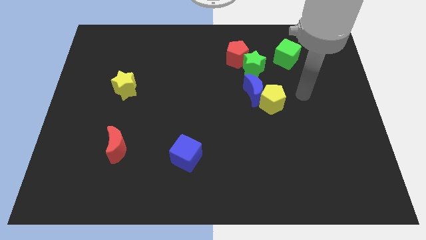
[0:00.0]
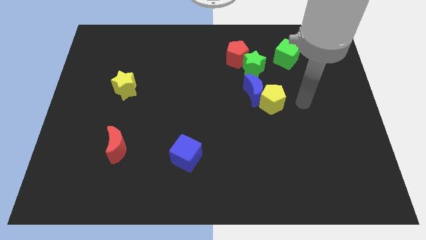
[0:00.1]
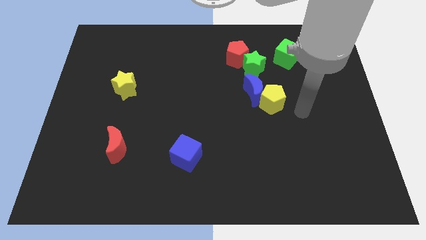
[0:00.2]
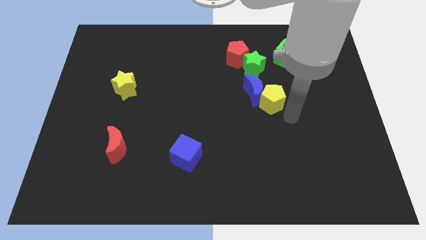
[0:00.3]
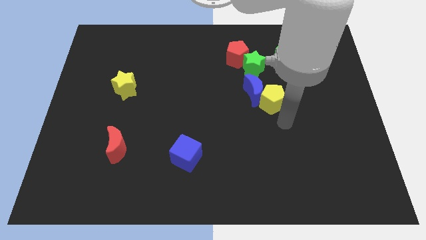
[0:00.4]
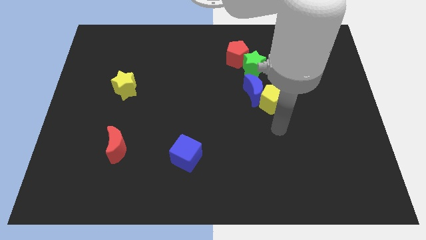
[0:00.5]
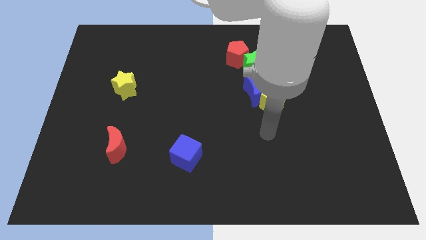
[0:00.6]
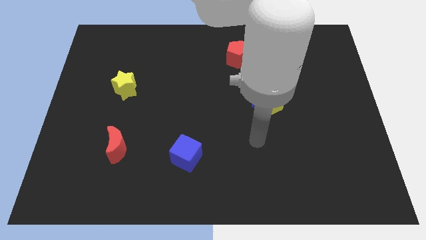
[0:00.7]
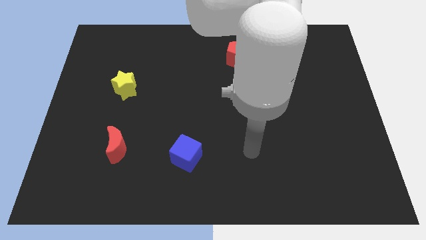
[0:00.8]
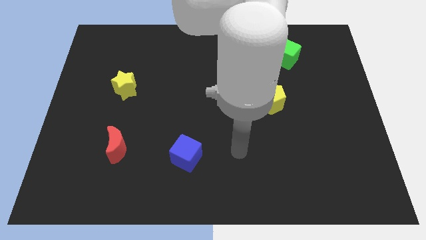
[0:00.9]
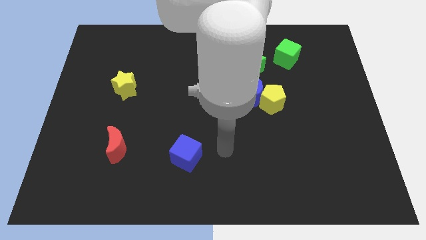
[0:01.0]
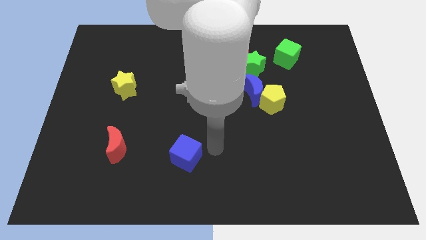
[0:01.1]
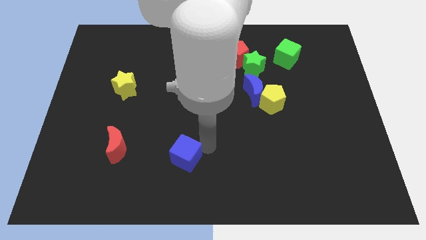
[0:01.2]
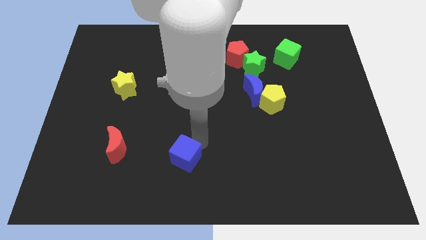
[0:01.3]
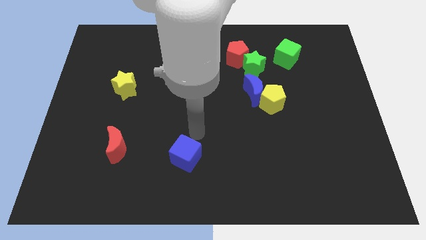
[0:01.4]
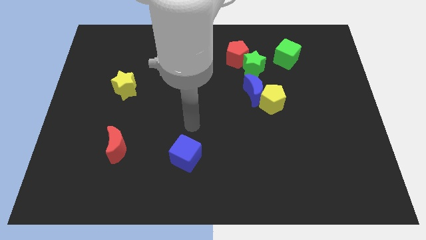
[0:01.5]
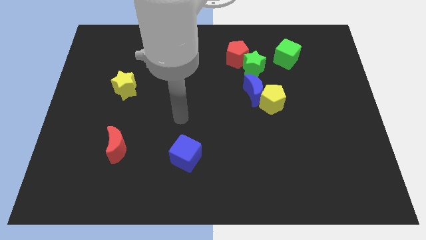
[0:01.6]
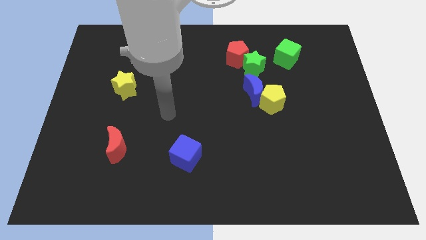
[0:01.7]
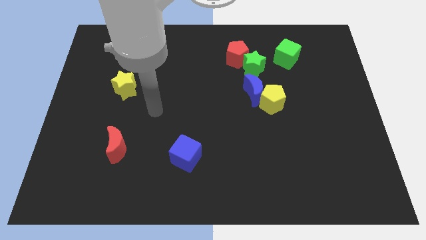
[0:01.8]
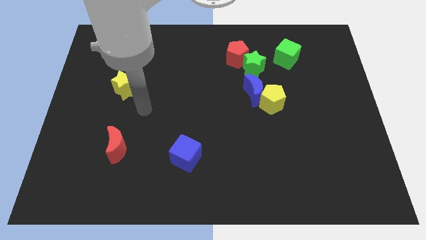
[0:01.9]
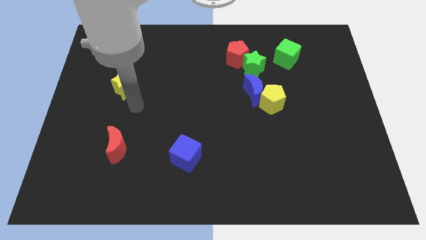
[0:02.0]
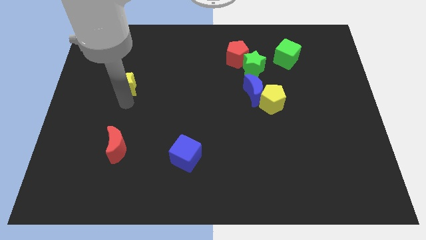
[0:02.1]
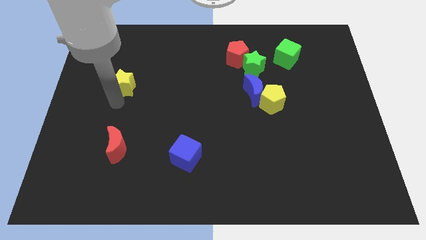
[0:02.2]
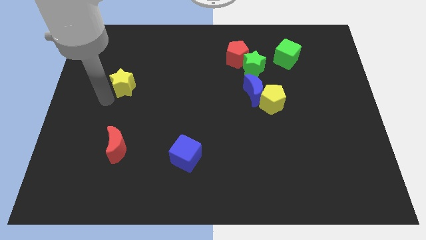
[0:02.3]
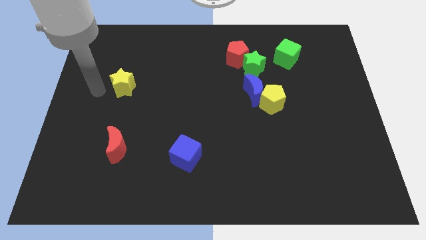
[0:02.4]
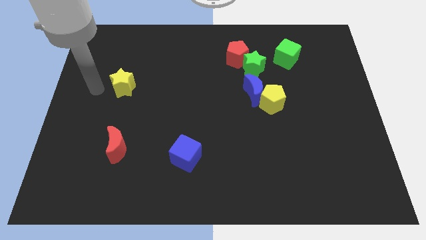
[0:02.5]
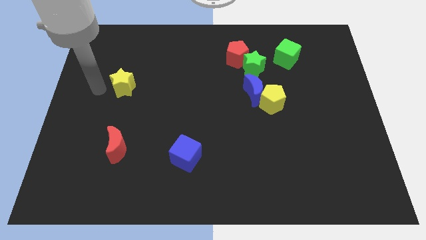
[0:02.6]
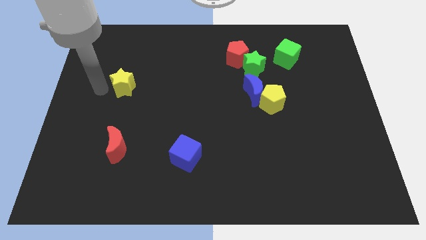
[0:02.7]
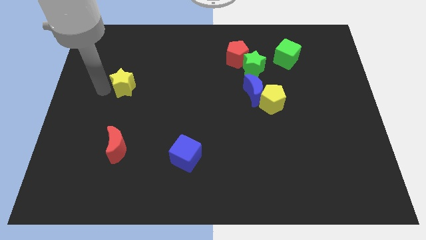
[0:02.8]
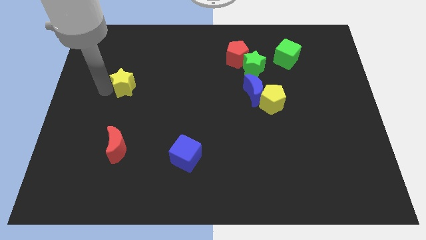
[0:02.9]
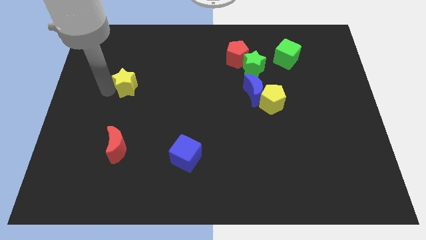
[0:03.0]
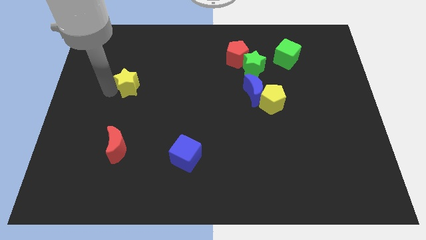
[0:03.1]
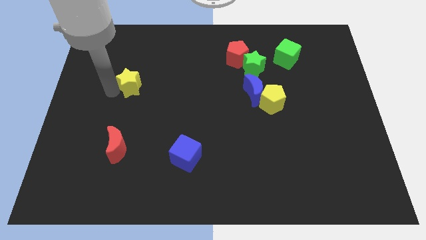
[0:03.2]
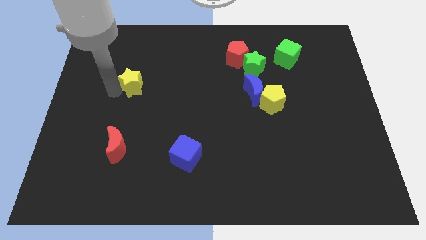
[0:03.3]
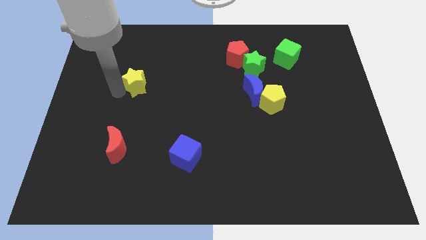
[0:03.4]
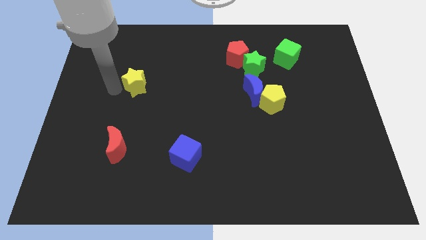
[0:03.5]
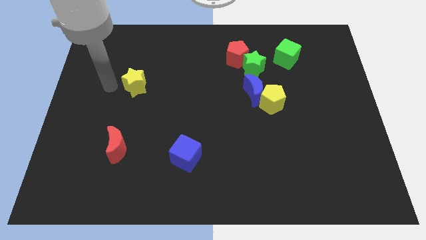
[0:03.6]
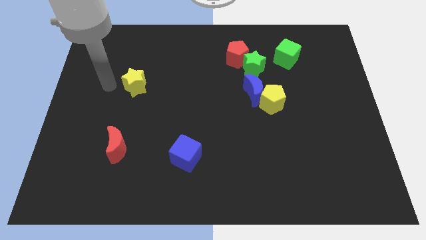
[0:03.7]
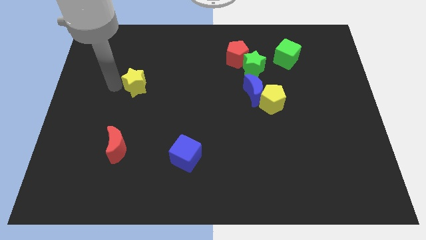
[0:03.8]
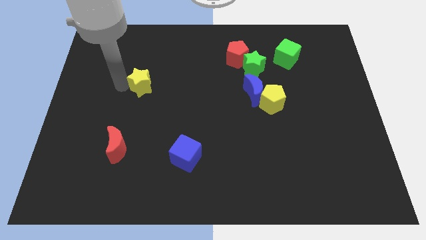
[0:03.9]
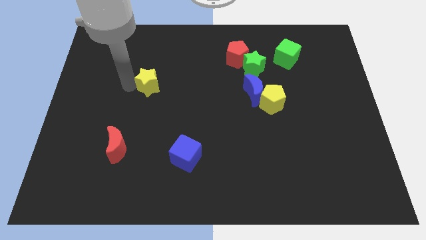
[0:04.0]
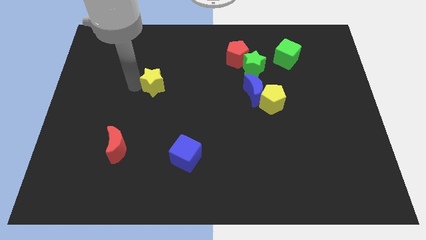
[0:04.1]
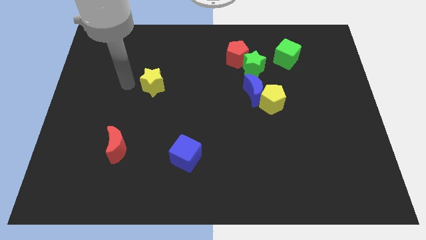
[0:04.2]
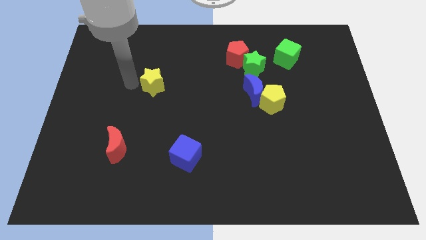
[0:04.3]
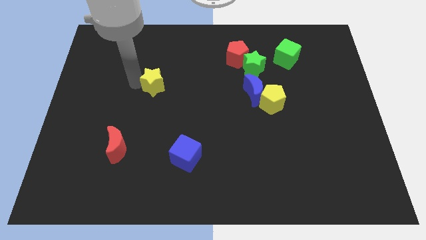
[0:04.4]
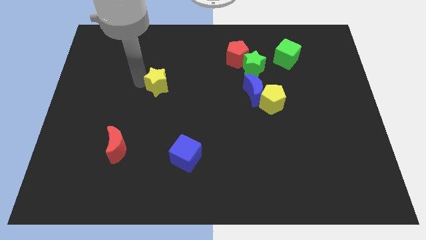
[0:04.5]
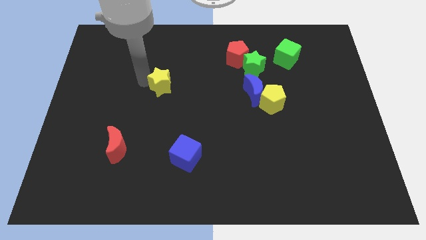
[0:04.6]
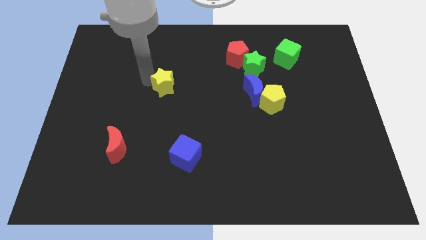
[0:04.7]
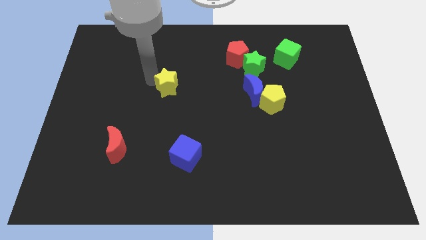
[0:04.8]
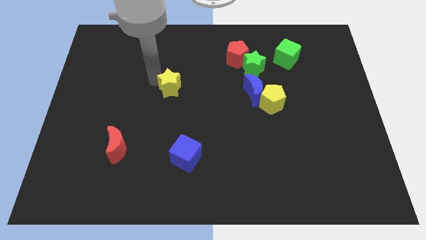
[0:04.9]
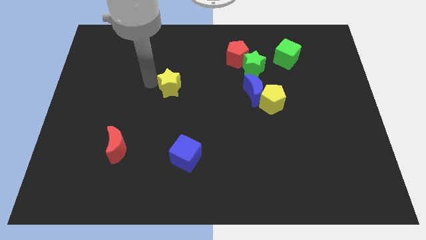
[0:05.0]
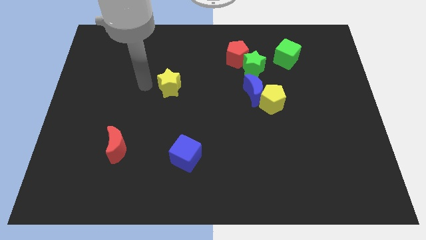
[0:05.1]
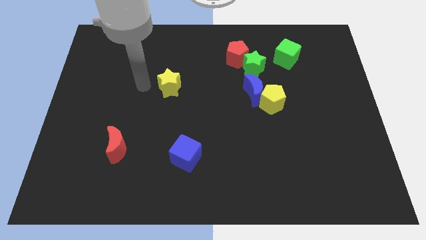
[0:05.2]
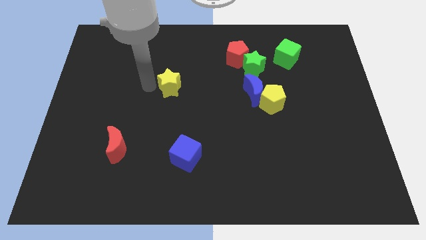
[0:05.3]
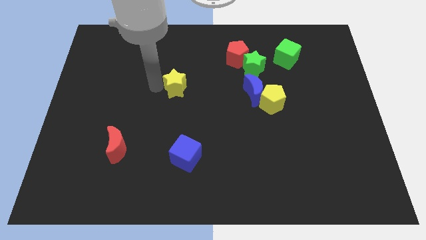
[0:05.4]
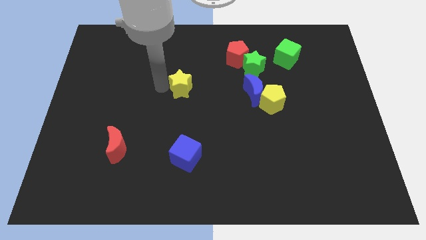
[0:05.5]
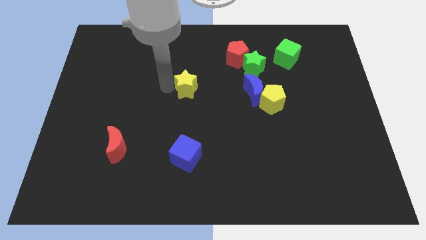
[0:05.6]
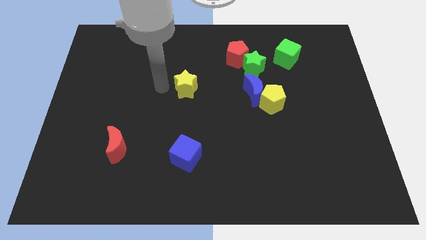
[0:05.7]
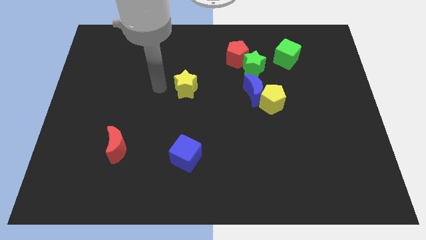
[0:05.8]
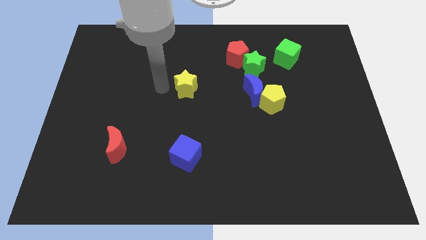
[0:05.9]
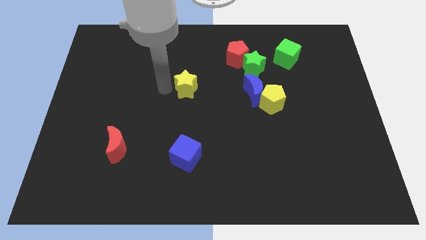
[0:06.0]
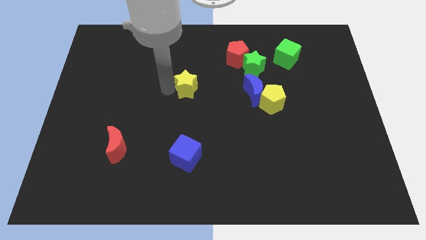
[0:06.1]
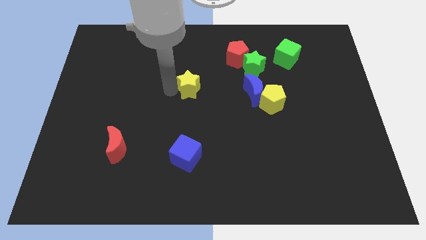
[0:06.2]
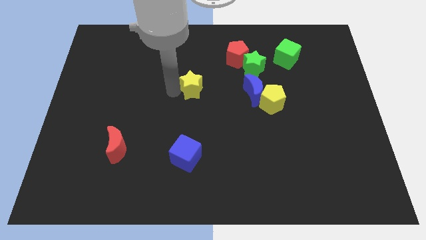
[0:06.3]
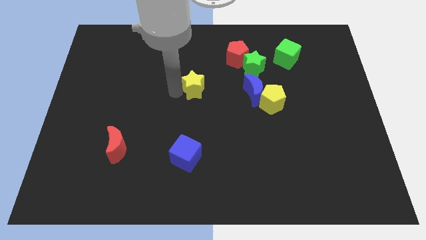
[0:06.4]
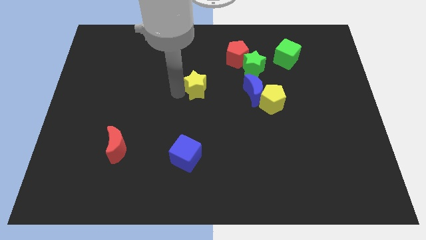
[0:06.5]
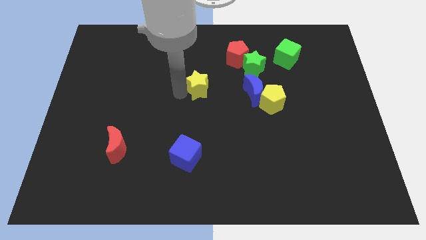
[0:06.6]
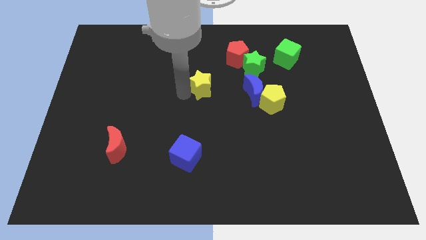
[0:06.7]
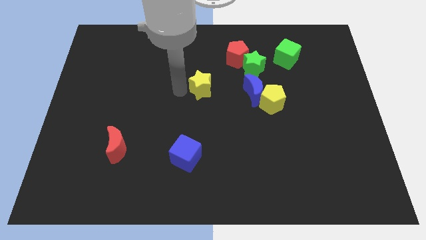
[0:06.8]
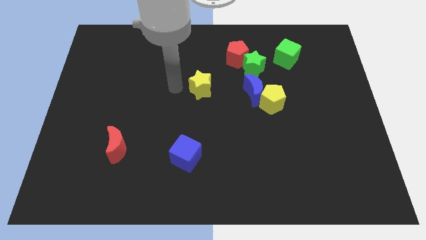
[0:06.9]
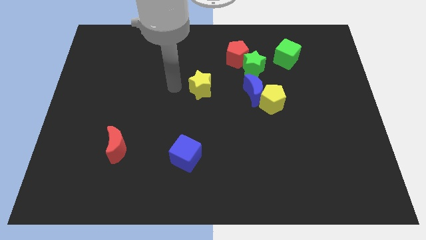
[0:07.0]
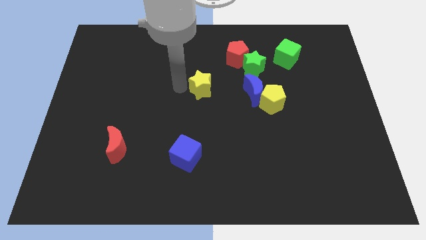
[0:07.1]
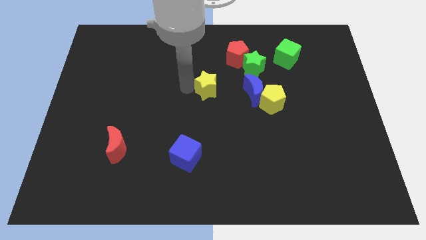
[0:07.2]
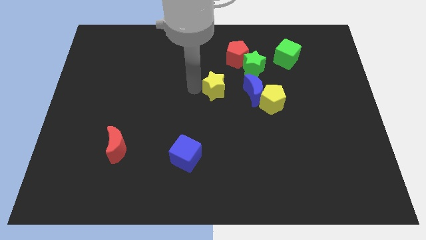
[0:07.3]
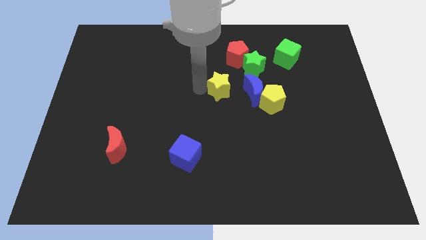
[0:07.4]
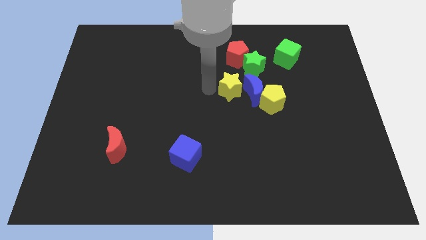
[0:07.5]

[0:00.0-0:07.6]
move the yellow star close to the blue moon

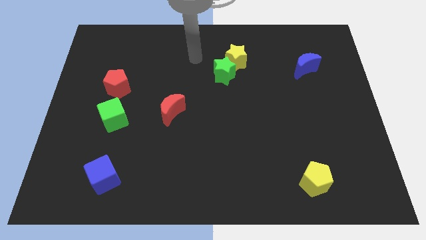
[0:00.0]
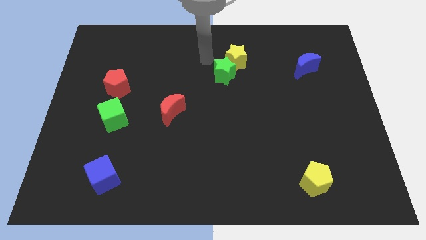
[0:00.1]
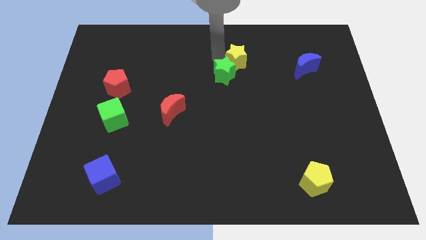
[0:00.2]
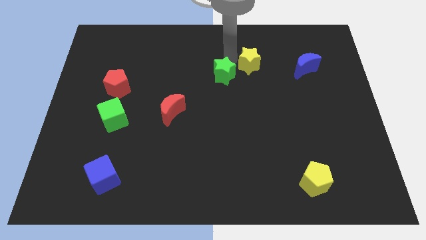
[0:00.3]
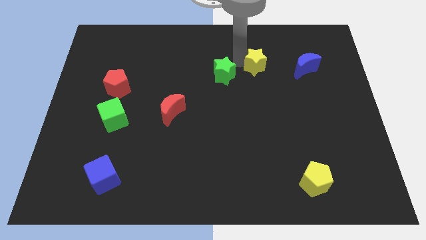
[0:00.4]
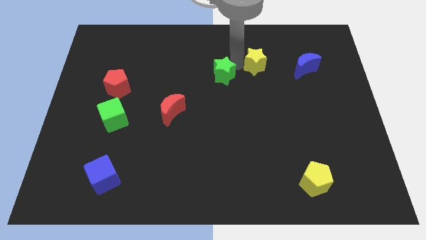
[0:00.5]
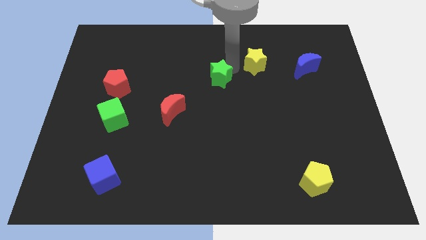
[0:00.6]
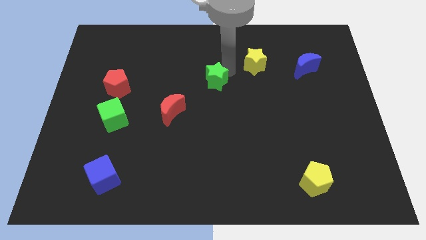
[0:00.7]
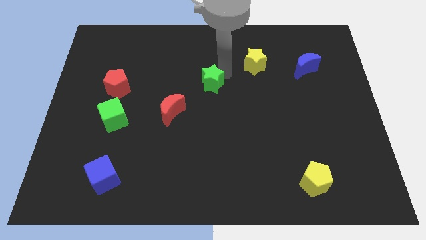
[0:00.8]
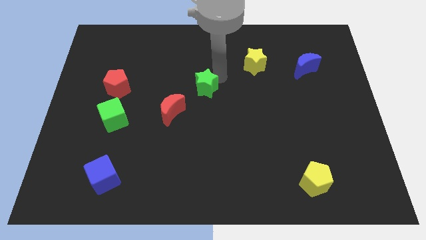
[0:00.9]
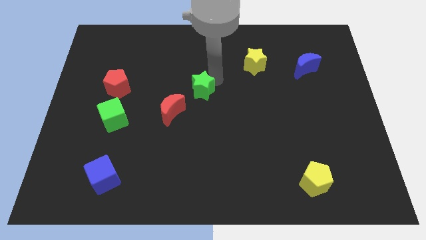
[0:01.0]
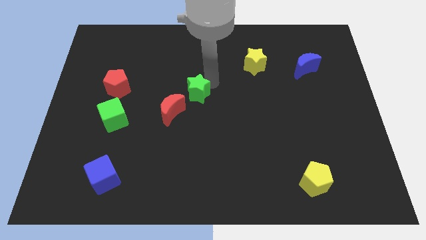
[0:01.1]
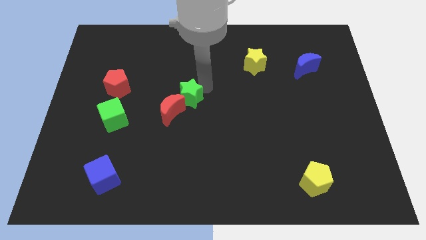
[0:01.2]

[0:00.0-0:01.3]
put the green star next to the red moon
